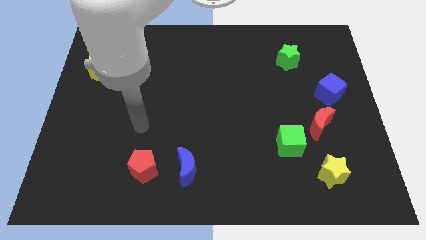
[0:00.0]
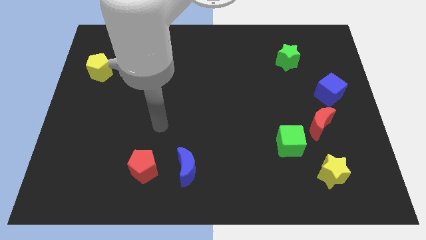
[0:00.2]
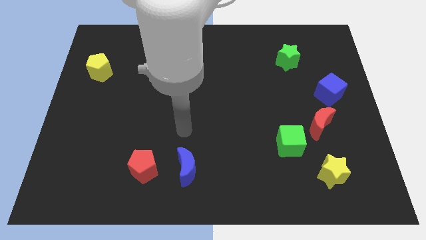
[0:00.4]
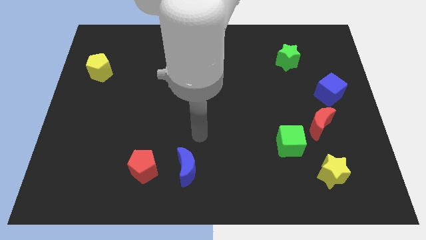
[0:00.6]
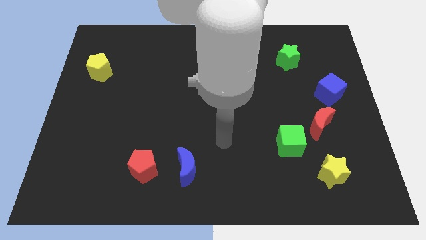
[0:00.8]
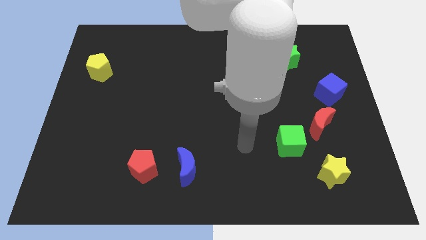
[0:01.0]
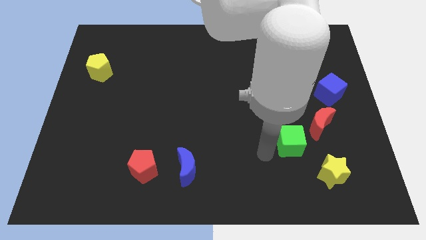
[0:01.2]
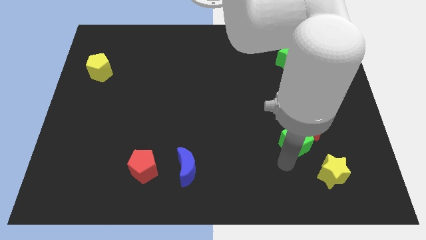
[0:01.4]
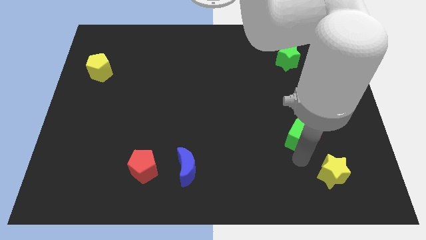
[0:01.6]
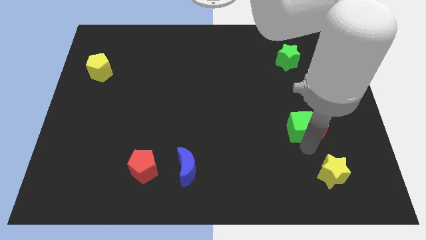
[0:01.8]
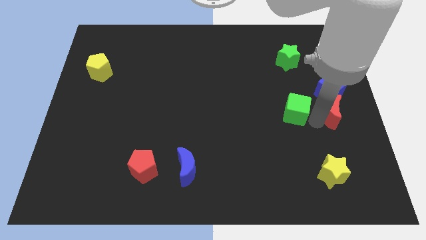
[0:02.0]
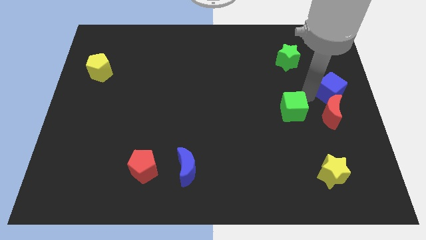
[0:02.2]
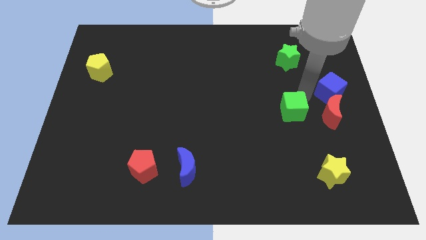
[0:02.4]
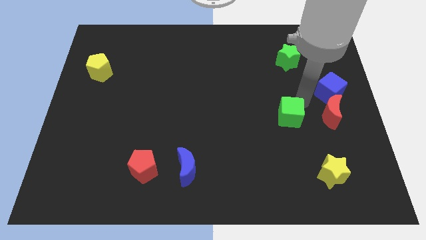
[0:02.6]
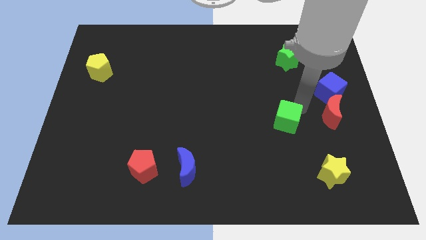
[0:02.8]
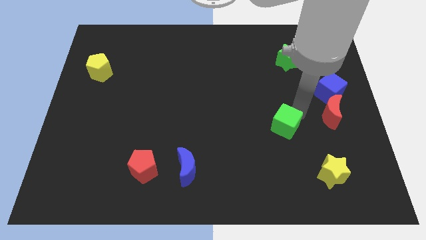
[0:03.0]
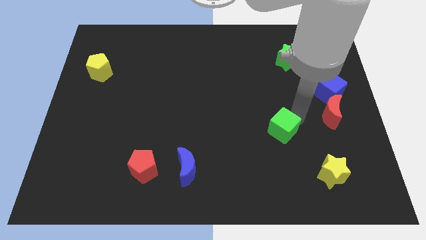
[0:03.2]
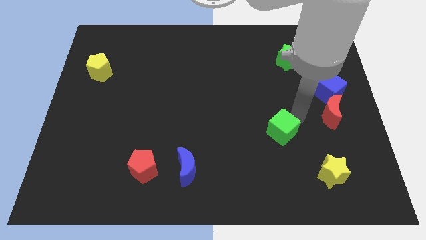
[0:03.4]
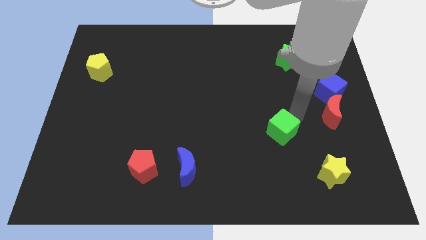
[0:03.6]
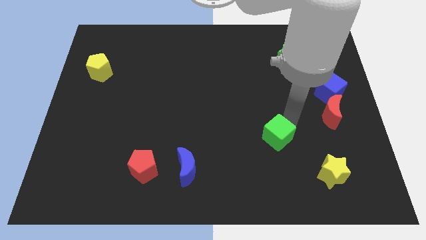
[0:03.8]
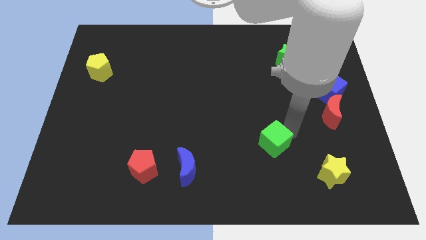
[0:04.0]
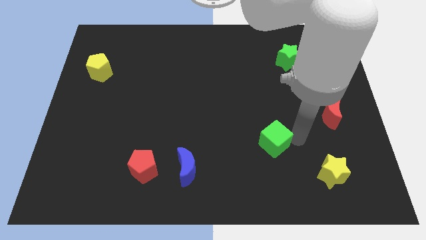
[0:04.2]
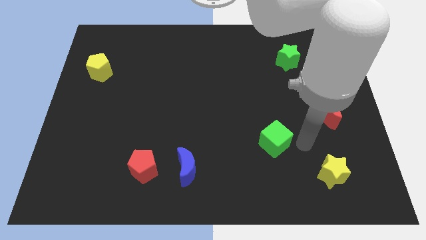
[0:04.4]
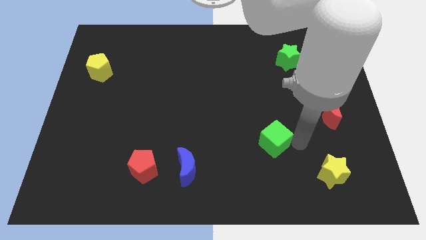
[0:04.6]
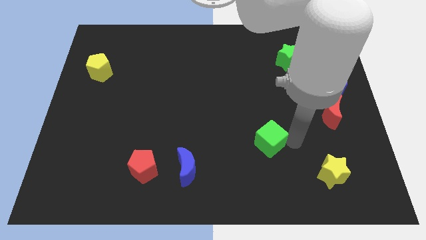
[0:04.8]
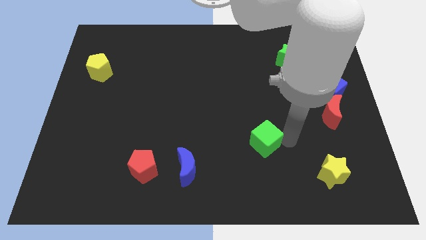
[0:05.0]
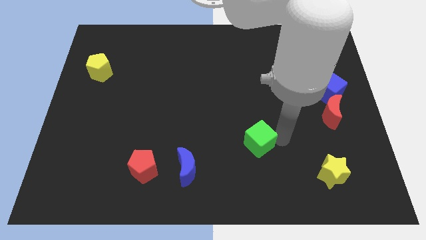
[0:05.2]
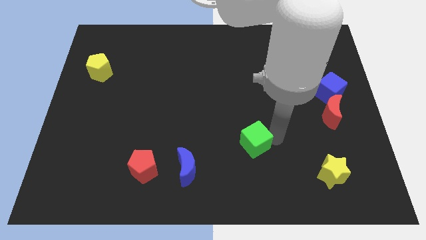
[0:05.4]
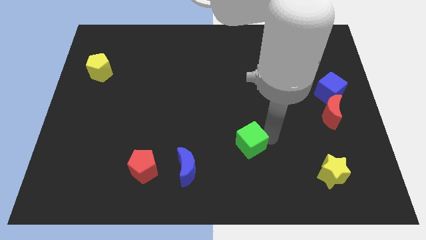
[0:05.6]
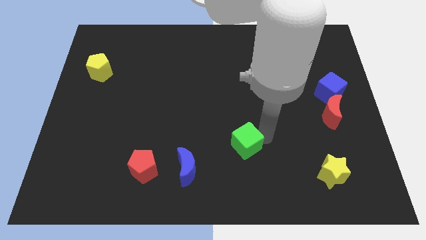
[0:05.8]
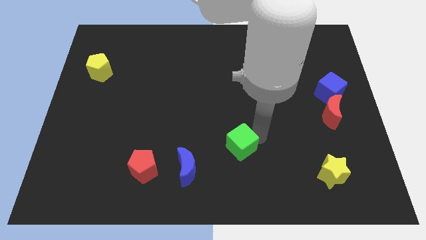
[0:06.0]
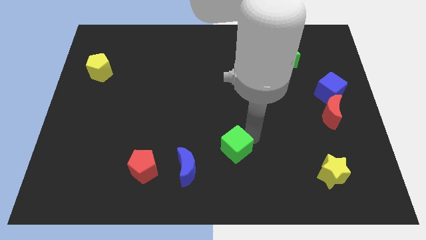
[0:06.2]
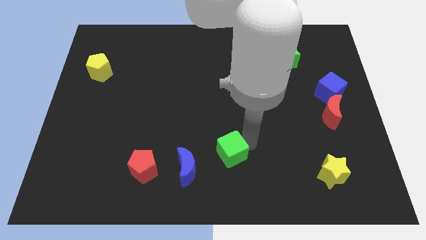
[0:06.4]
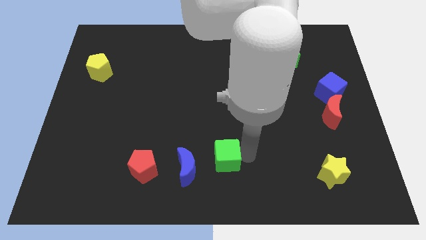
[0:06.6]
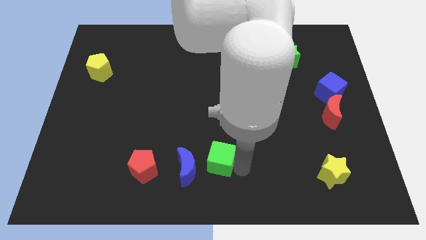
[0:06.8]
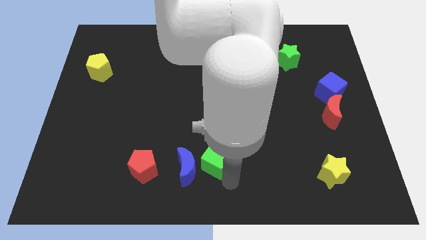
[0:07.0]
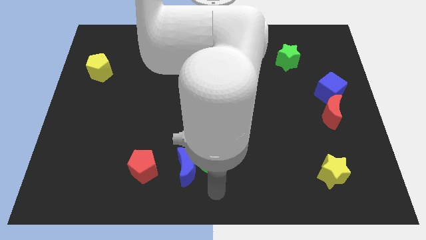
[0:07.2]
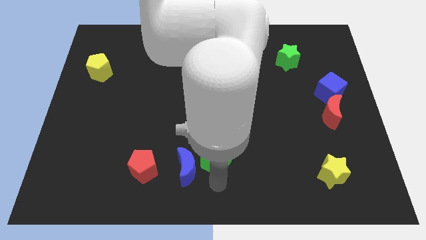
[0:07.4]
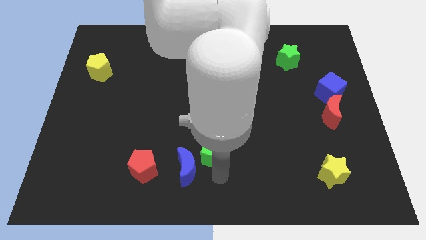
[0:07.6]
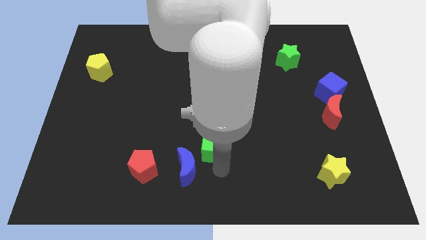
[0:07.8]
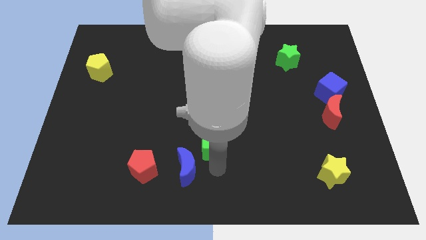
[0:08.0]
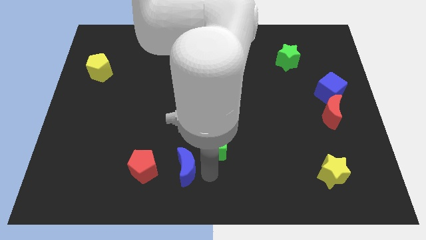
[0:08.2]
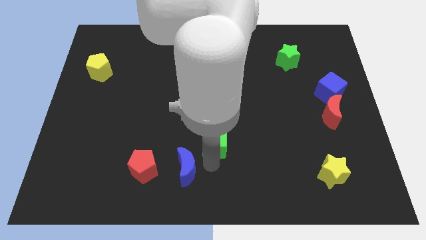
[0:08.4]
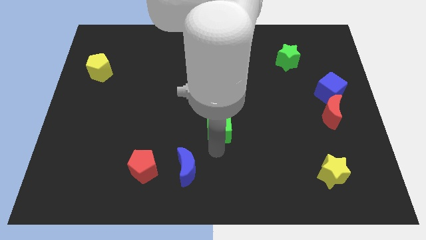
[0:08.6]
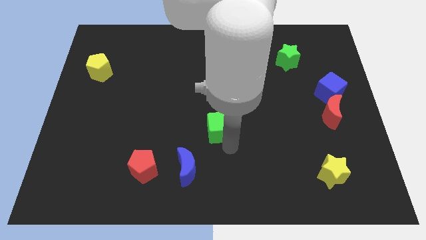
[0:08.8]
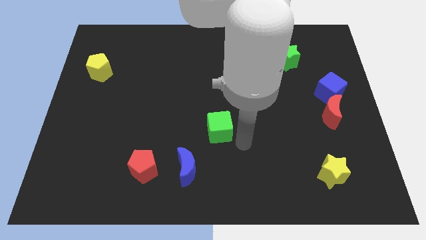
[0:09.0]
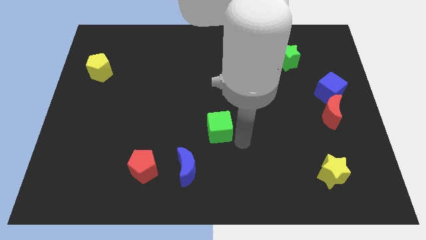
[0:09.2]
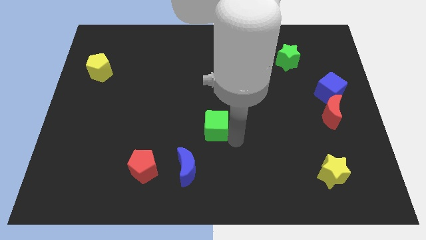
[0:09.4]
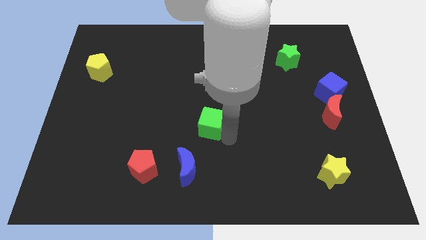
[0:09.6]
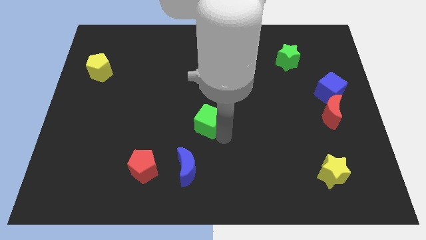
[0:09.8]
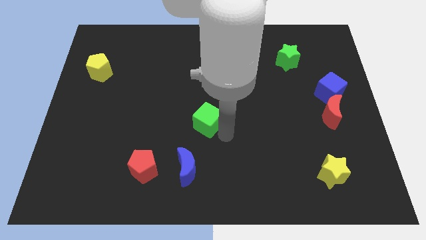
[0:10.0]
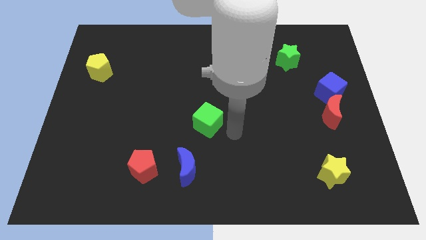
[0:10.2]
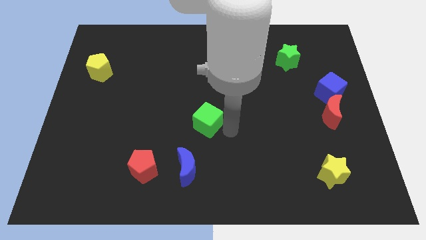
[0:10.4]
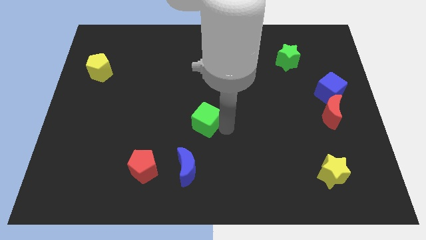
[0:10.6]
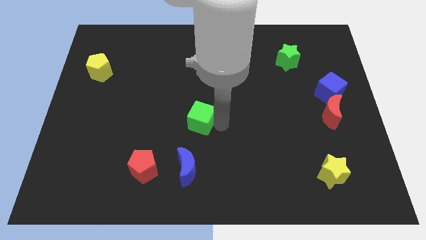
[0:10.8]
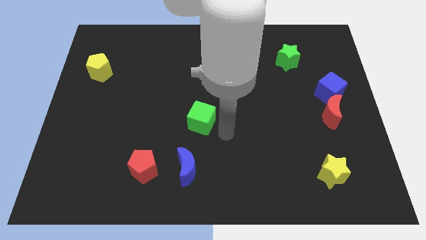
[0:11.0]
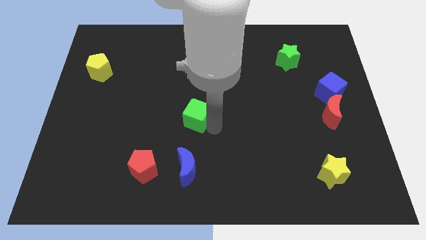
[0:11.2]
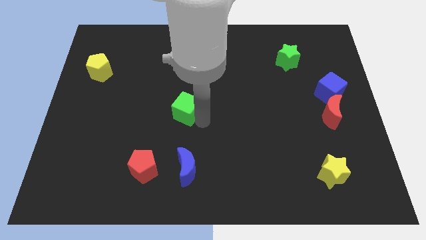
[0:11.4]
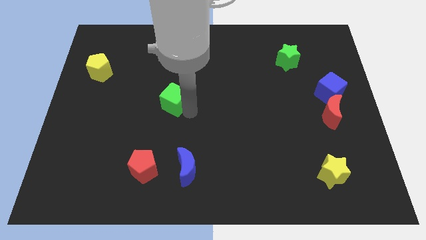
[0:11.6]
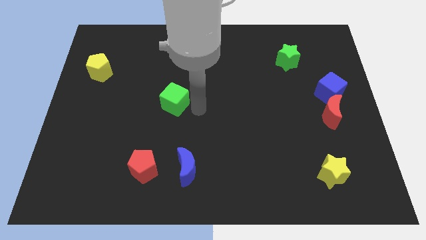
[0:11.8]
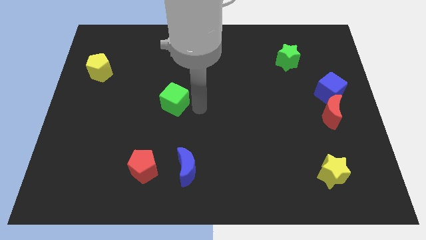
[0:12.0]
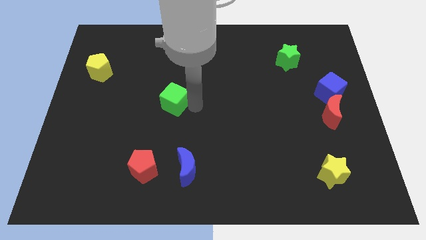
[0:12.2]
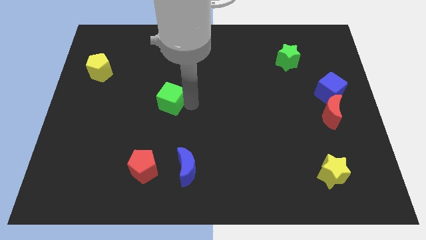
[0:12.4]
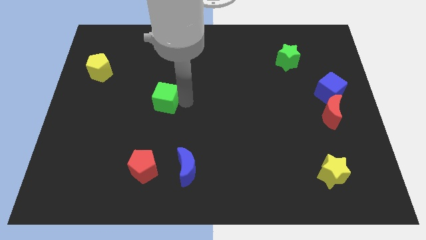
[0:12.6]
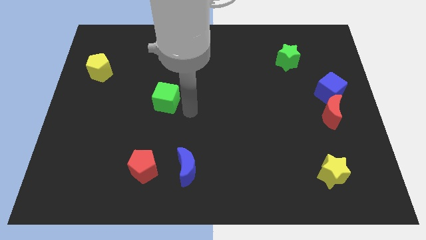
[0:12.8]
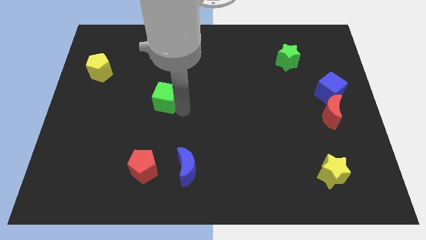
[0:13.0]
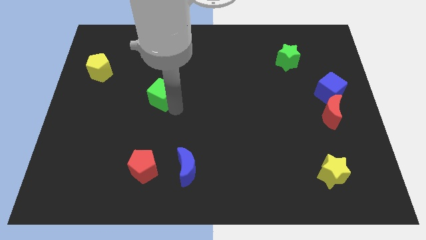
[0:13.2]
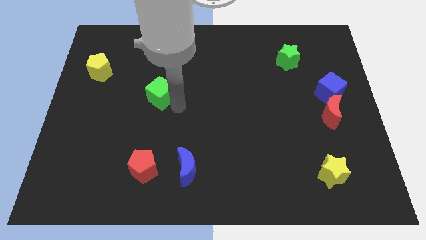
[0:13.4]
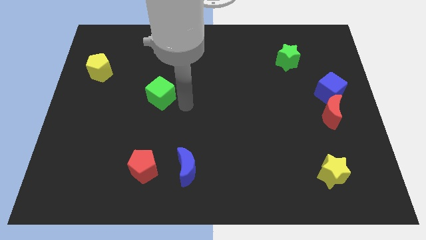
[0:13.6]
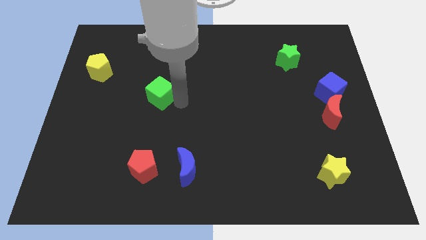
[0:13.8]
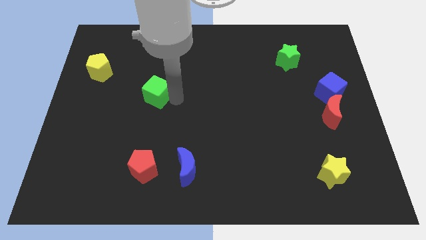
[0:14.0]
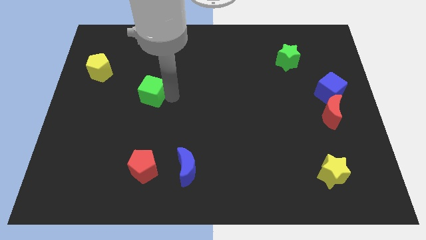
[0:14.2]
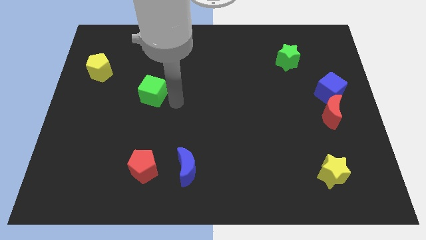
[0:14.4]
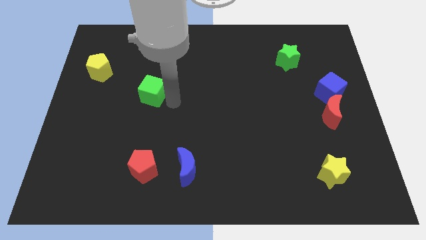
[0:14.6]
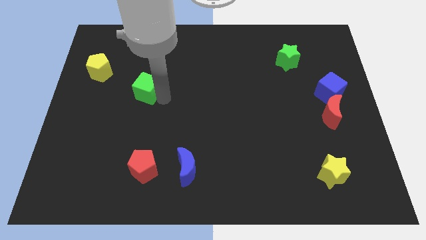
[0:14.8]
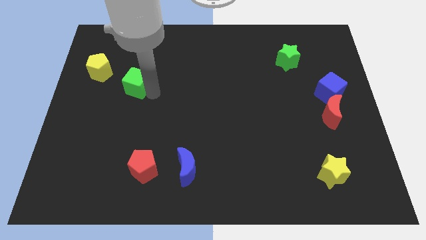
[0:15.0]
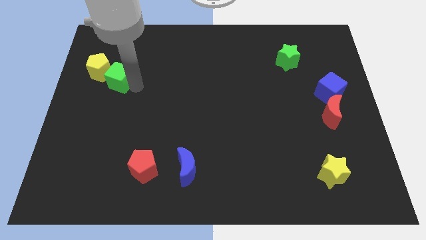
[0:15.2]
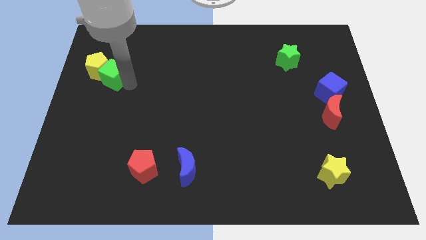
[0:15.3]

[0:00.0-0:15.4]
slide the green cube close to the yellow pentagon
